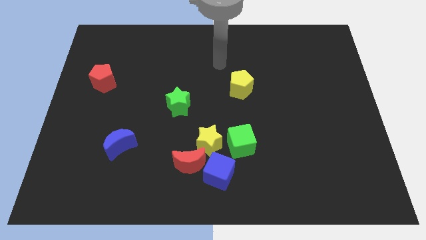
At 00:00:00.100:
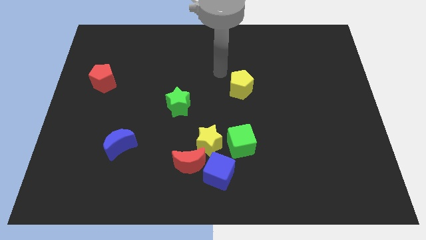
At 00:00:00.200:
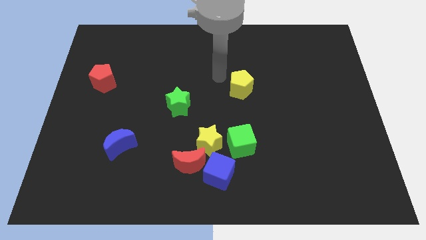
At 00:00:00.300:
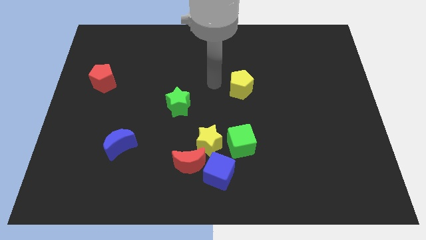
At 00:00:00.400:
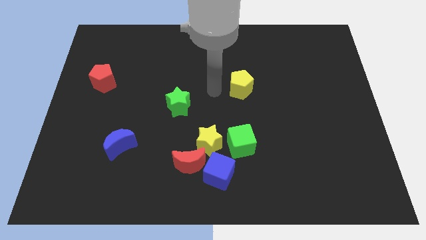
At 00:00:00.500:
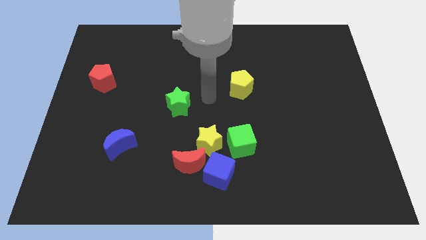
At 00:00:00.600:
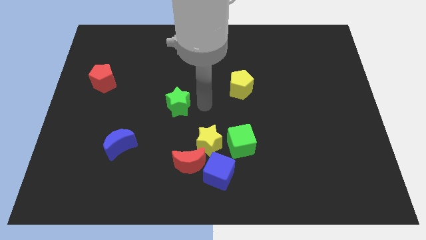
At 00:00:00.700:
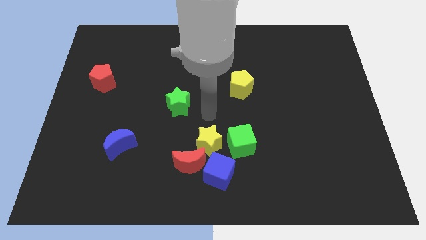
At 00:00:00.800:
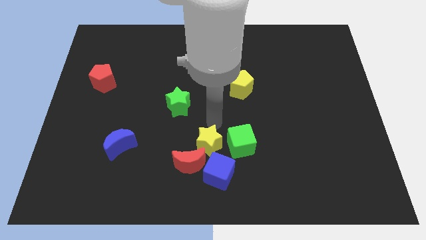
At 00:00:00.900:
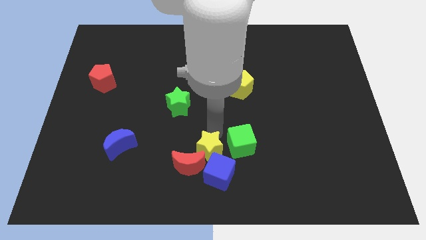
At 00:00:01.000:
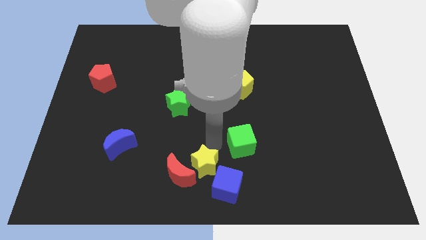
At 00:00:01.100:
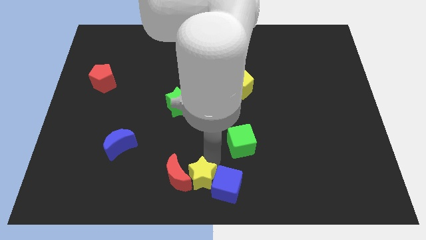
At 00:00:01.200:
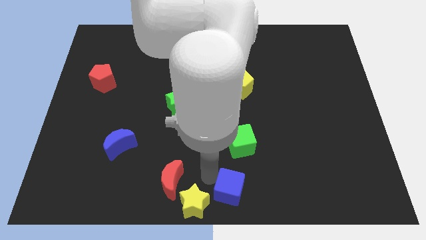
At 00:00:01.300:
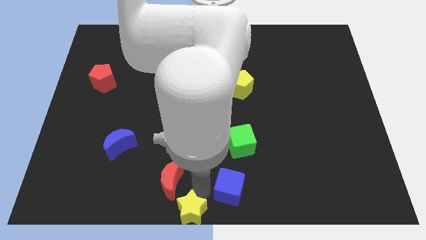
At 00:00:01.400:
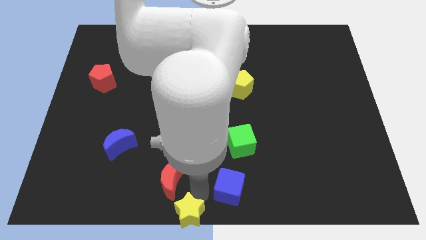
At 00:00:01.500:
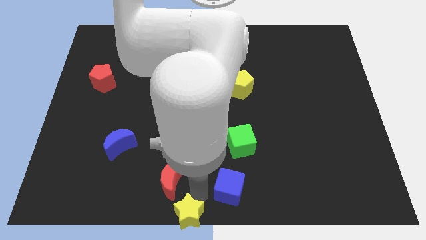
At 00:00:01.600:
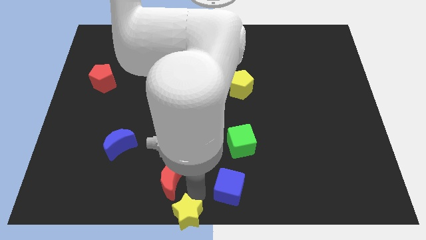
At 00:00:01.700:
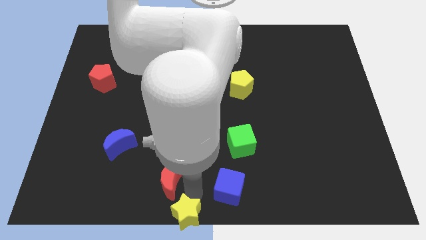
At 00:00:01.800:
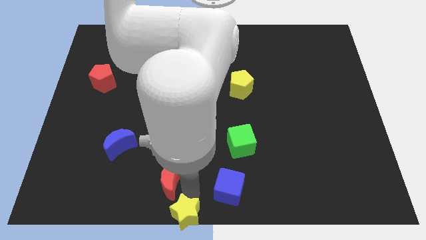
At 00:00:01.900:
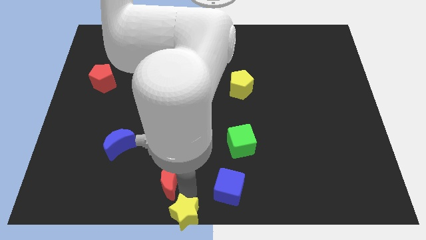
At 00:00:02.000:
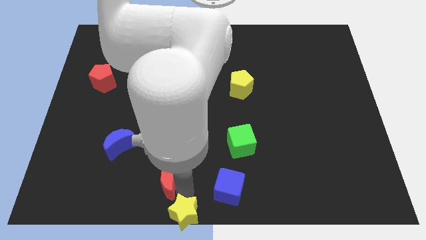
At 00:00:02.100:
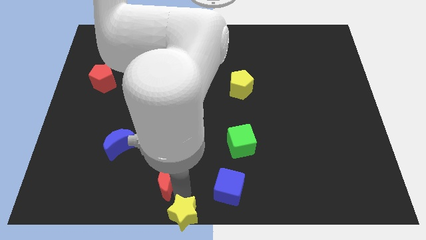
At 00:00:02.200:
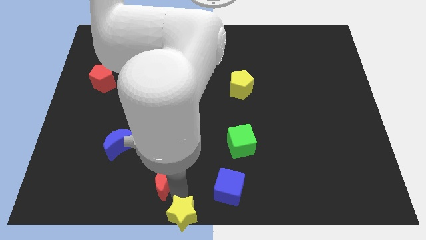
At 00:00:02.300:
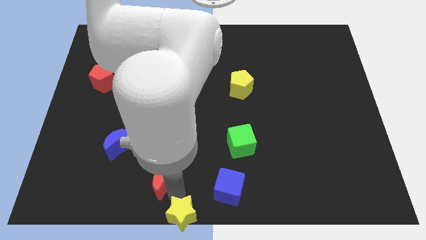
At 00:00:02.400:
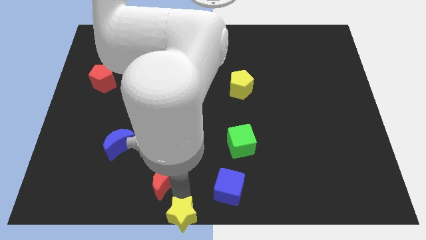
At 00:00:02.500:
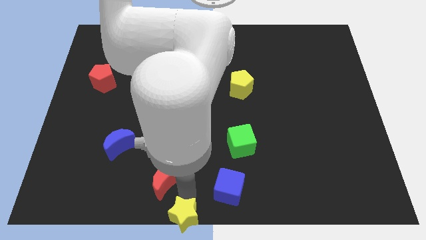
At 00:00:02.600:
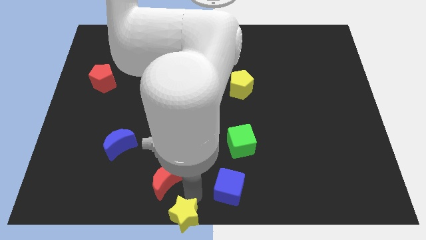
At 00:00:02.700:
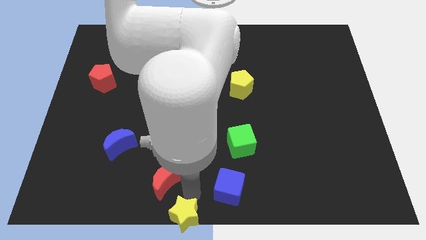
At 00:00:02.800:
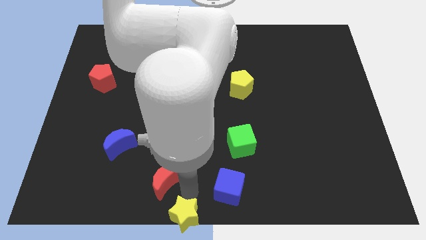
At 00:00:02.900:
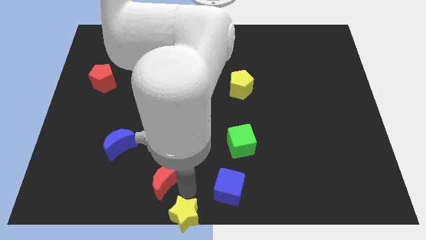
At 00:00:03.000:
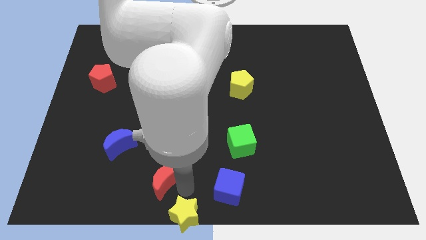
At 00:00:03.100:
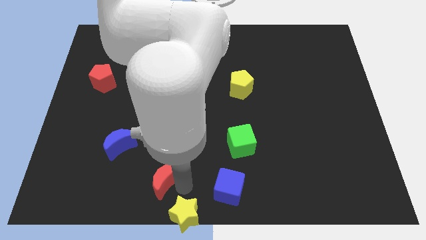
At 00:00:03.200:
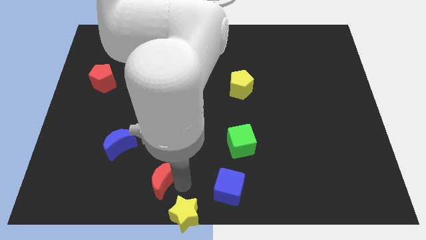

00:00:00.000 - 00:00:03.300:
move the red moon away from the blue cube and yellow star

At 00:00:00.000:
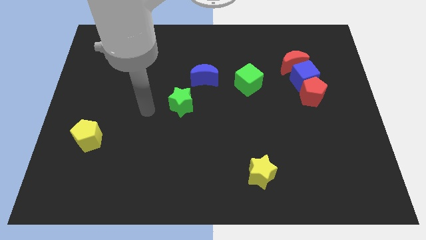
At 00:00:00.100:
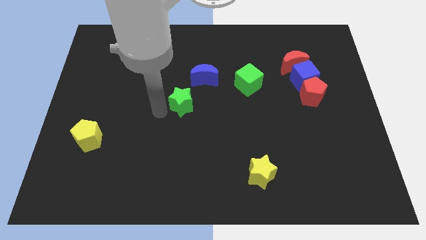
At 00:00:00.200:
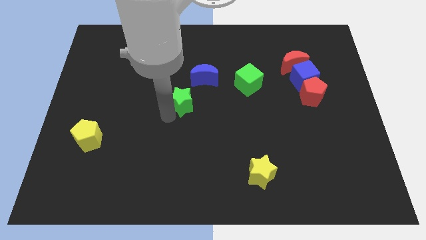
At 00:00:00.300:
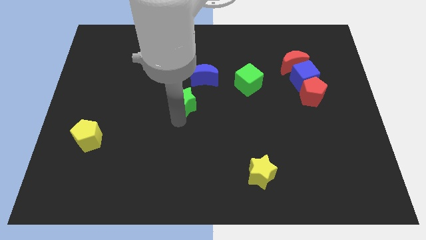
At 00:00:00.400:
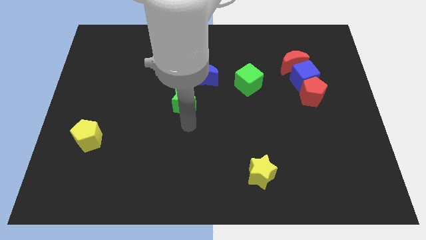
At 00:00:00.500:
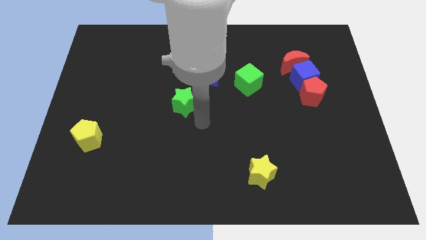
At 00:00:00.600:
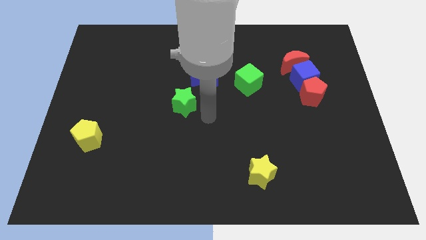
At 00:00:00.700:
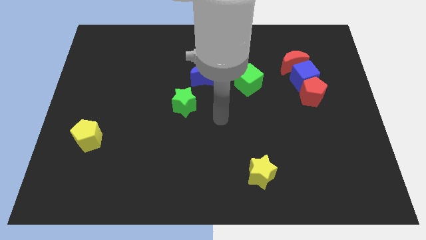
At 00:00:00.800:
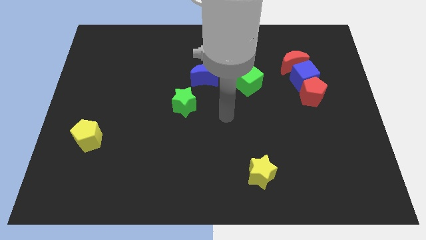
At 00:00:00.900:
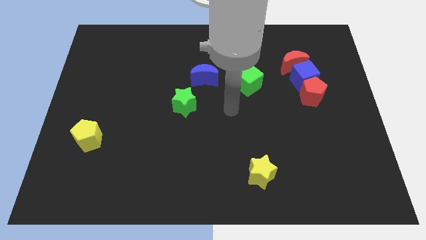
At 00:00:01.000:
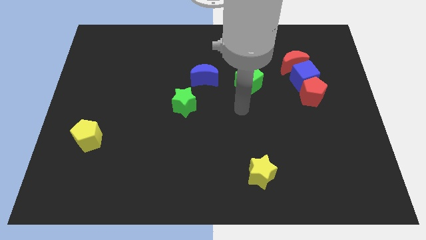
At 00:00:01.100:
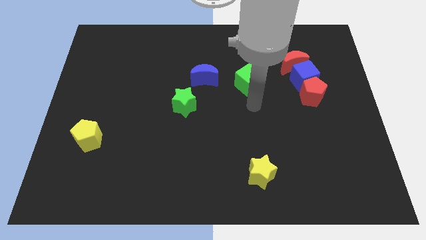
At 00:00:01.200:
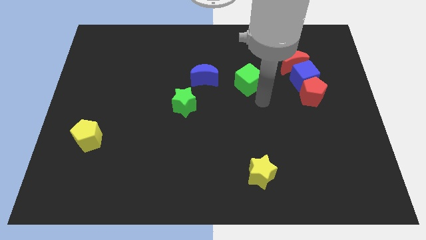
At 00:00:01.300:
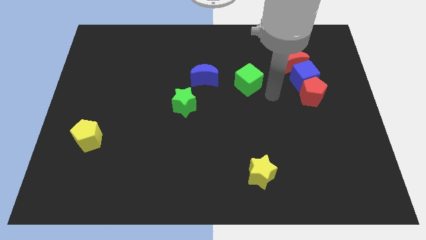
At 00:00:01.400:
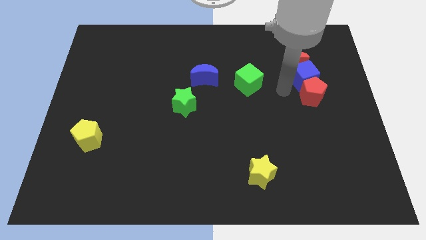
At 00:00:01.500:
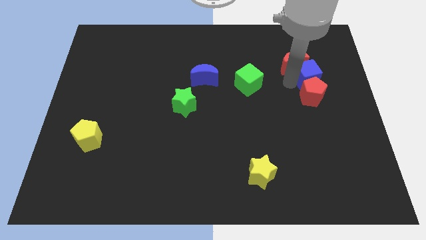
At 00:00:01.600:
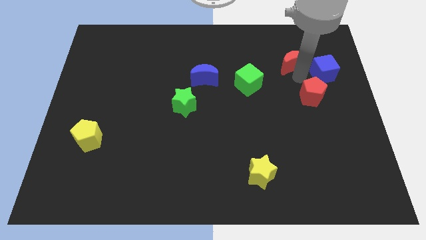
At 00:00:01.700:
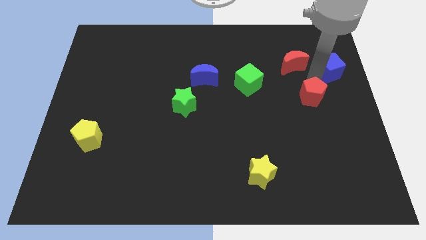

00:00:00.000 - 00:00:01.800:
separate the red pentagon from the blue cube

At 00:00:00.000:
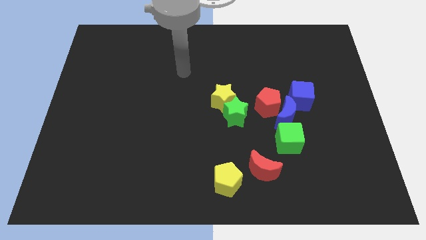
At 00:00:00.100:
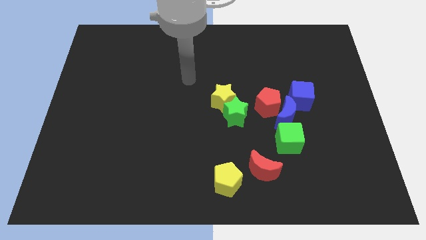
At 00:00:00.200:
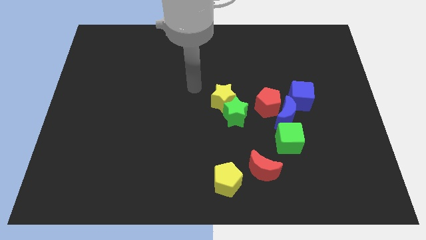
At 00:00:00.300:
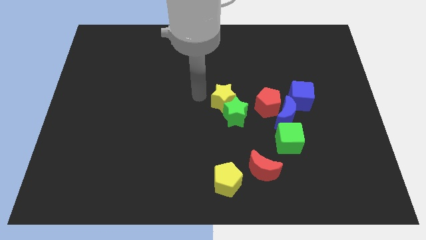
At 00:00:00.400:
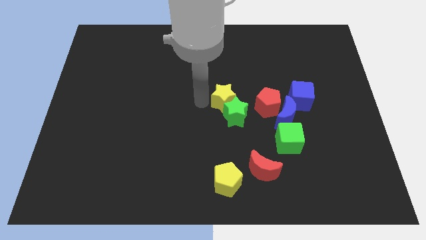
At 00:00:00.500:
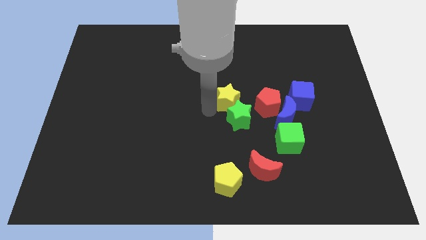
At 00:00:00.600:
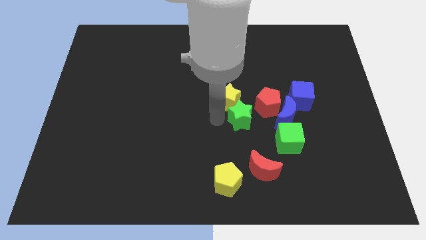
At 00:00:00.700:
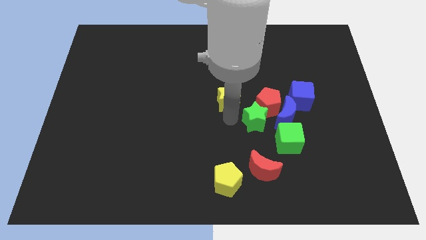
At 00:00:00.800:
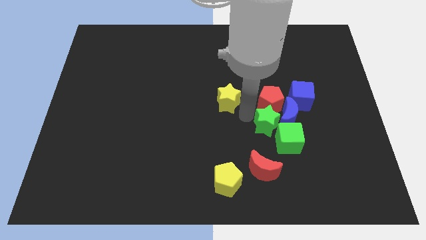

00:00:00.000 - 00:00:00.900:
separate the yellow star from the green star

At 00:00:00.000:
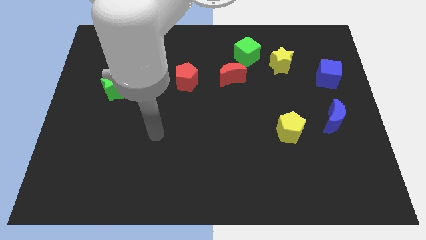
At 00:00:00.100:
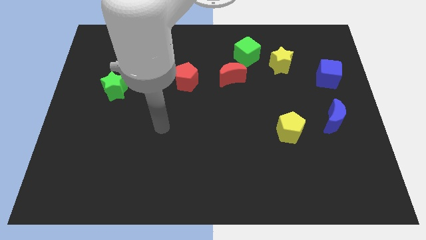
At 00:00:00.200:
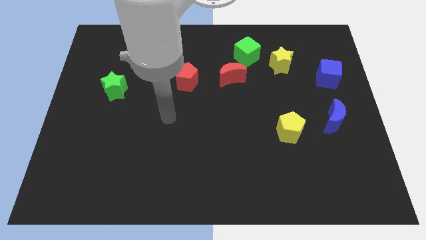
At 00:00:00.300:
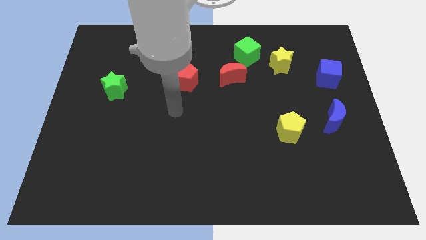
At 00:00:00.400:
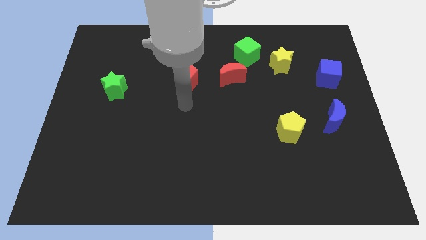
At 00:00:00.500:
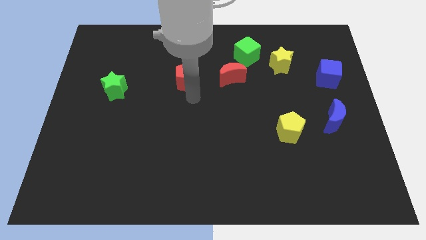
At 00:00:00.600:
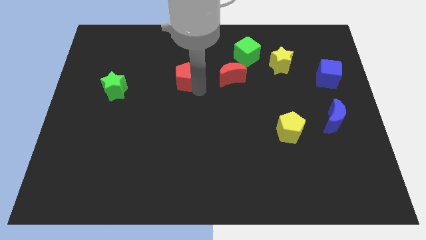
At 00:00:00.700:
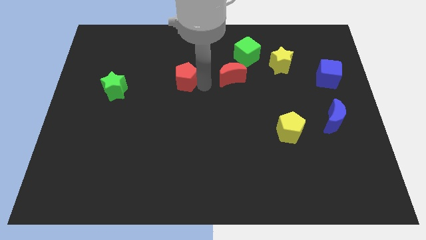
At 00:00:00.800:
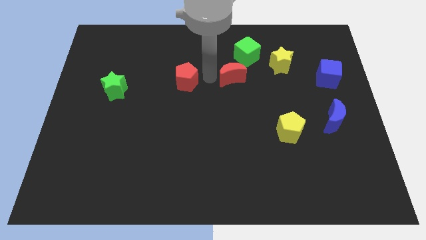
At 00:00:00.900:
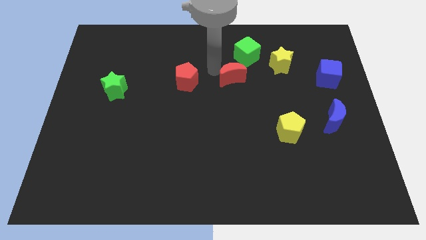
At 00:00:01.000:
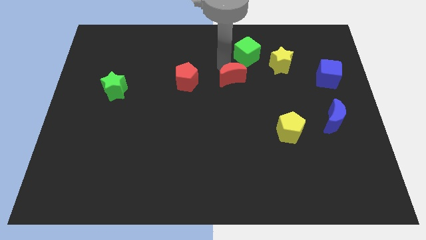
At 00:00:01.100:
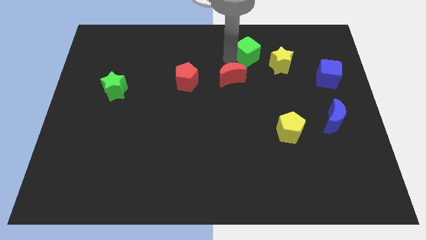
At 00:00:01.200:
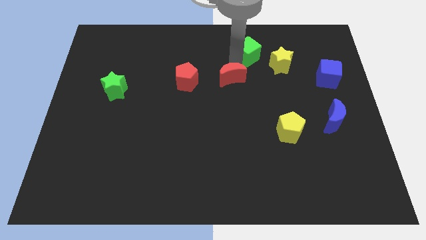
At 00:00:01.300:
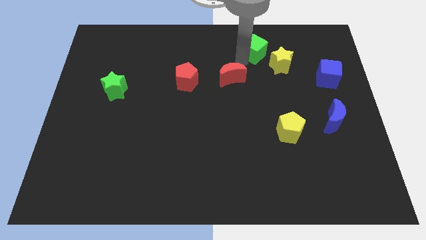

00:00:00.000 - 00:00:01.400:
pull the red moon apart from the green cube

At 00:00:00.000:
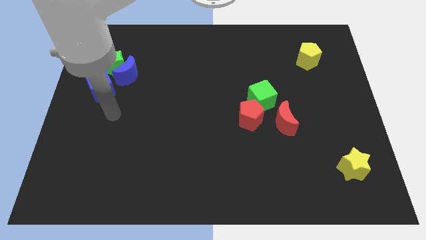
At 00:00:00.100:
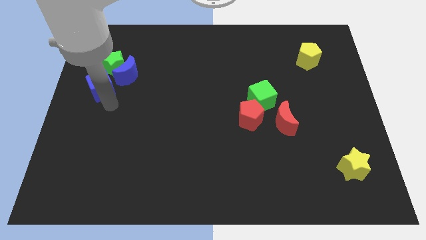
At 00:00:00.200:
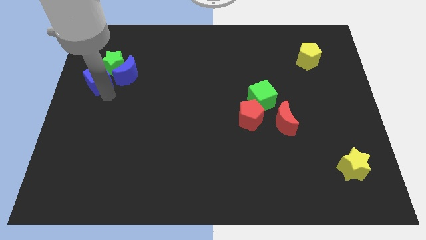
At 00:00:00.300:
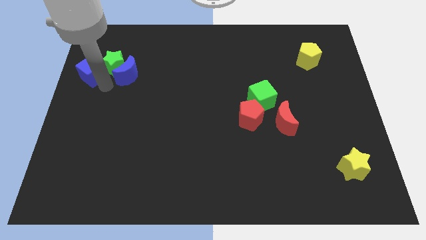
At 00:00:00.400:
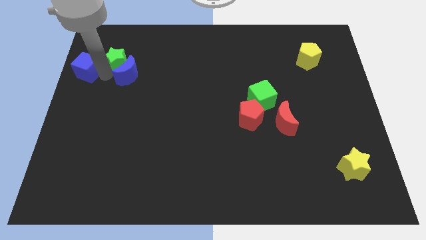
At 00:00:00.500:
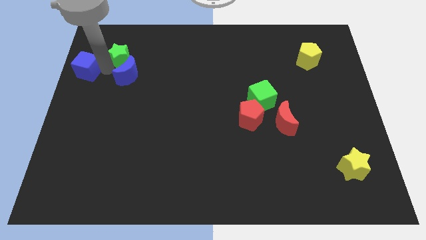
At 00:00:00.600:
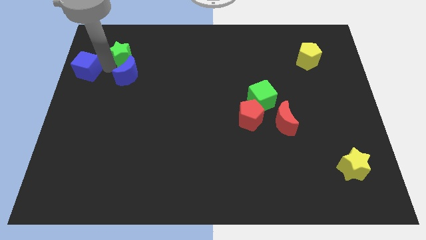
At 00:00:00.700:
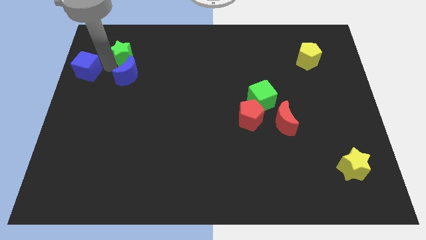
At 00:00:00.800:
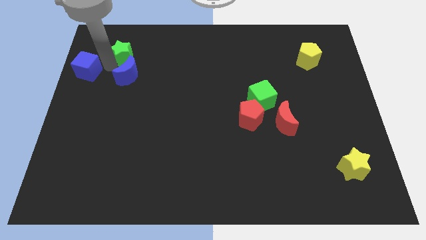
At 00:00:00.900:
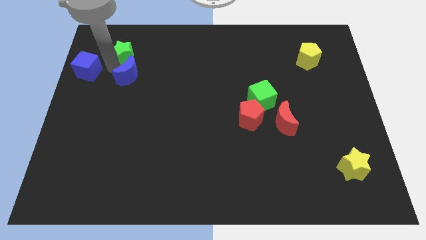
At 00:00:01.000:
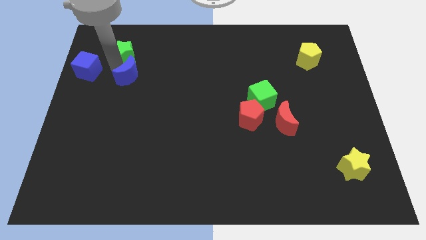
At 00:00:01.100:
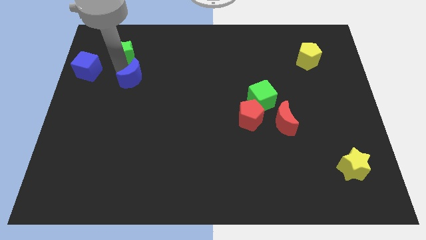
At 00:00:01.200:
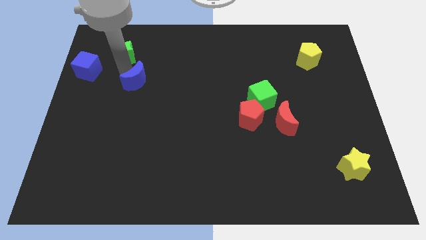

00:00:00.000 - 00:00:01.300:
separate the blue moon from the green star and blue cube

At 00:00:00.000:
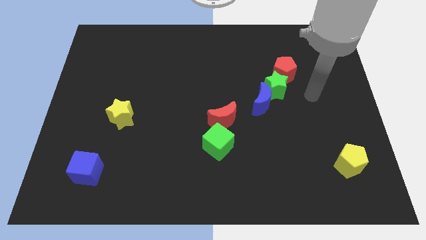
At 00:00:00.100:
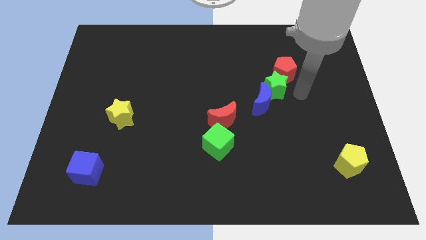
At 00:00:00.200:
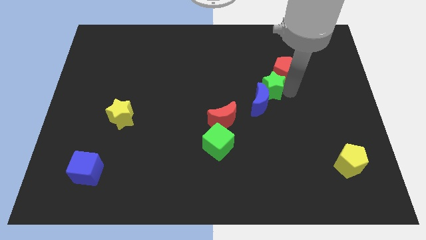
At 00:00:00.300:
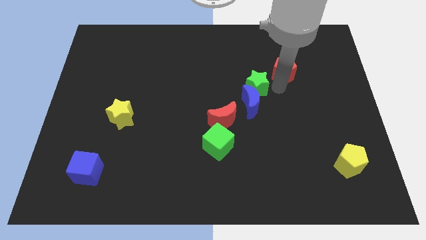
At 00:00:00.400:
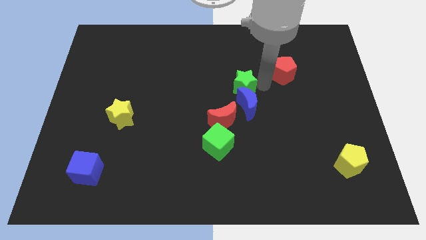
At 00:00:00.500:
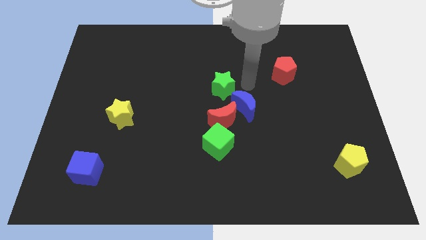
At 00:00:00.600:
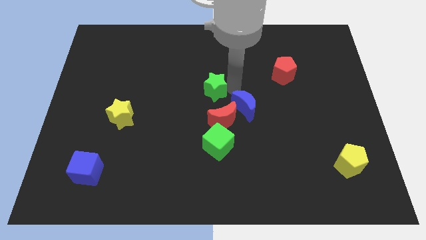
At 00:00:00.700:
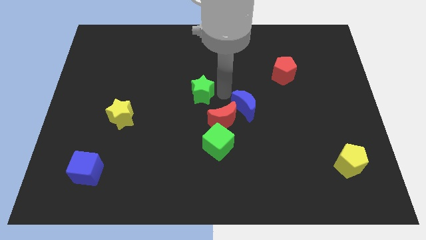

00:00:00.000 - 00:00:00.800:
move the blue moon away from the green star
